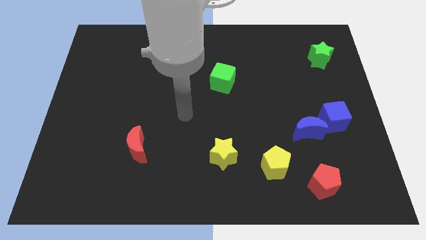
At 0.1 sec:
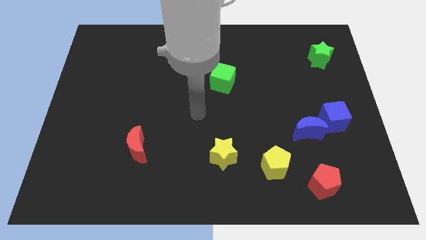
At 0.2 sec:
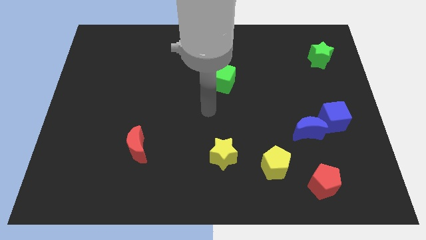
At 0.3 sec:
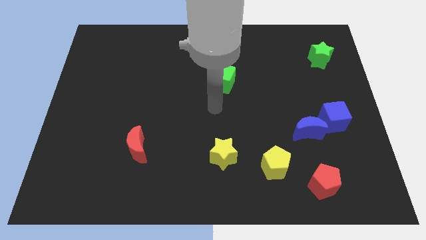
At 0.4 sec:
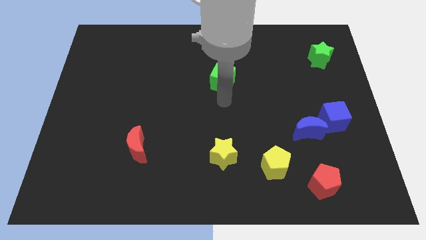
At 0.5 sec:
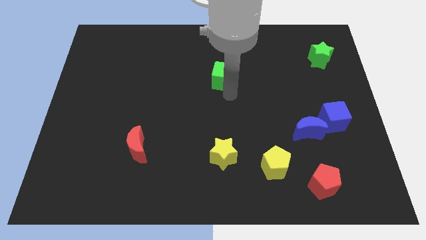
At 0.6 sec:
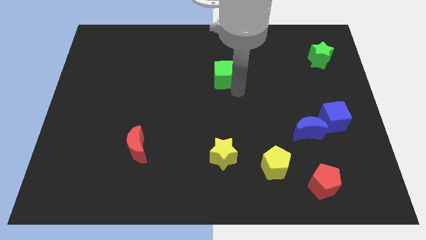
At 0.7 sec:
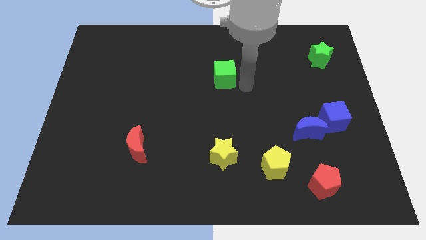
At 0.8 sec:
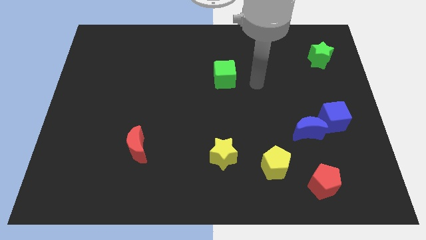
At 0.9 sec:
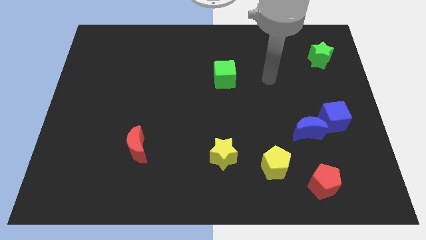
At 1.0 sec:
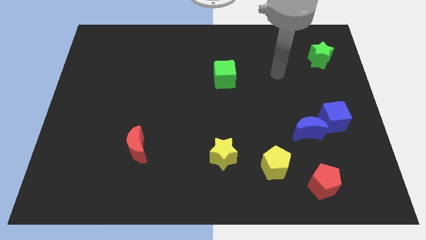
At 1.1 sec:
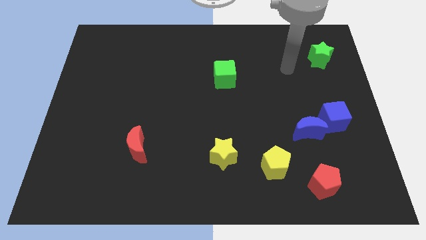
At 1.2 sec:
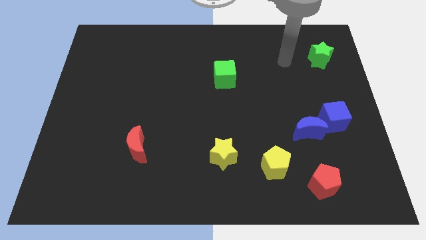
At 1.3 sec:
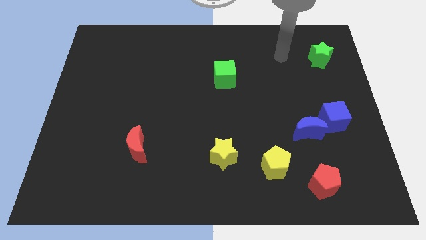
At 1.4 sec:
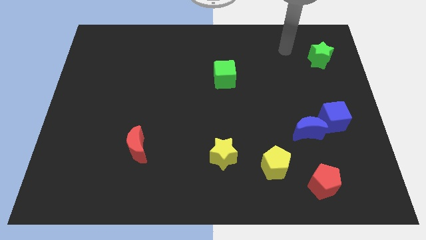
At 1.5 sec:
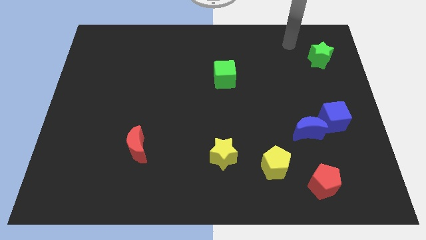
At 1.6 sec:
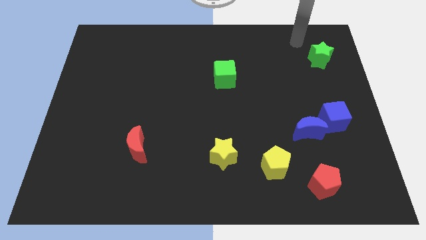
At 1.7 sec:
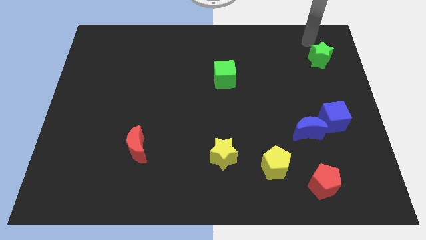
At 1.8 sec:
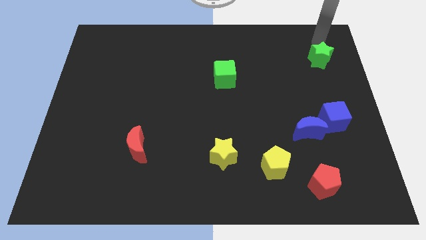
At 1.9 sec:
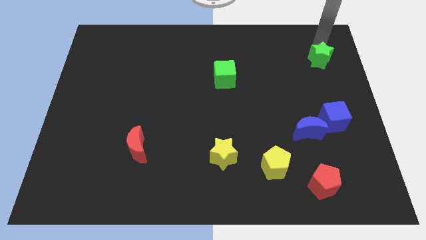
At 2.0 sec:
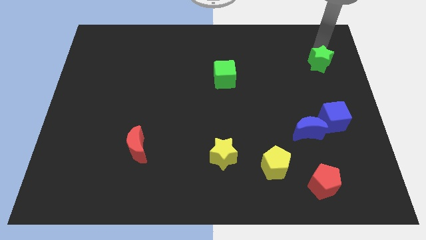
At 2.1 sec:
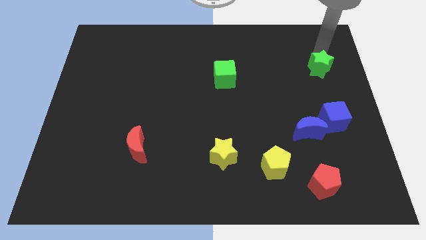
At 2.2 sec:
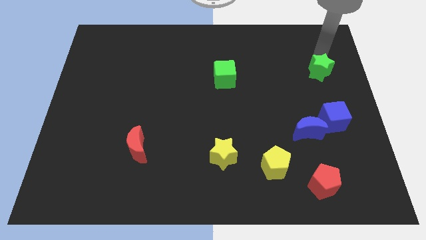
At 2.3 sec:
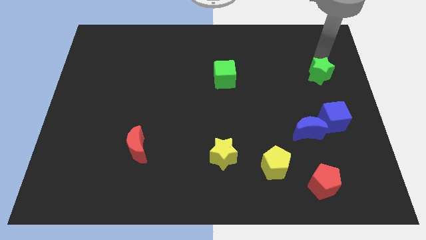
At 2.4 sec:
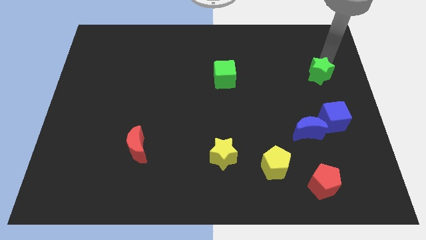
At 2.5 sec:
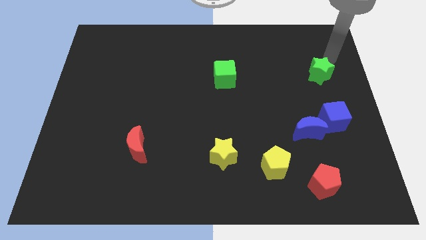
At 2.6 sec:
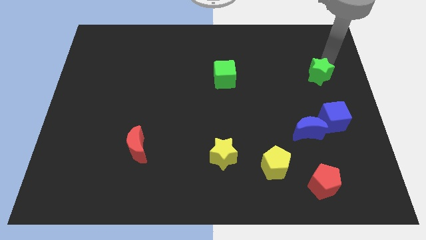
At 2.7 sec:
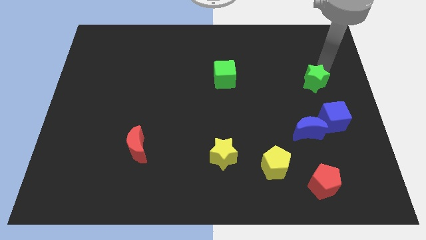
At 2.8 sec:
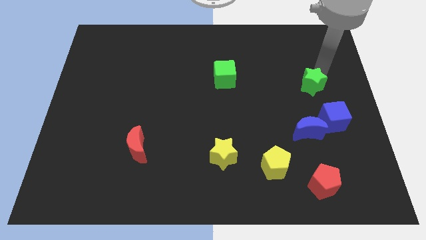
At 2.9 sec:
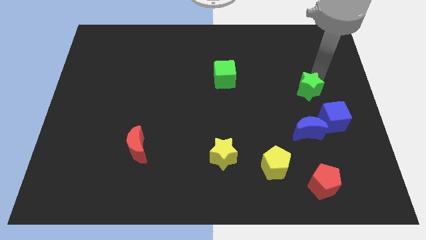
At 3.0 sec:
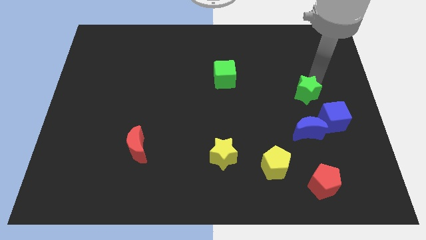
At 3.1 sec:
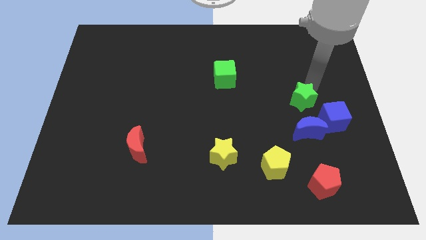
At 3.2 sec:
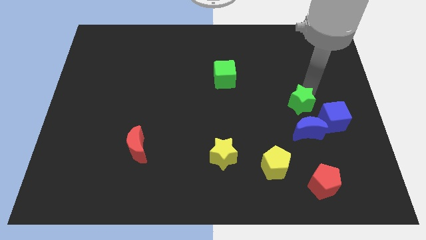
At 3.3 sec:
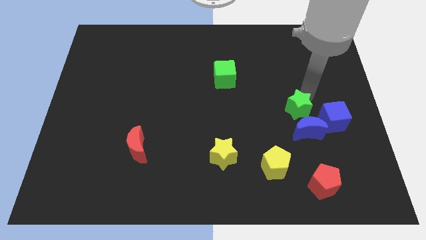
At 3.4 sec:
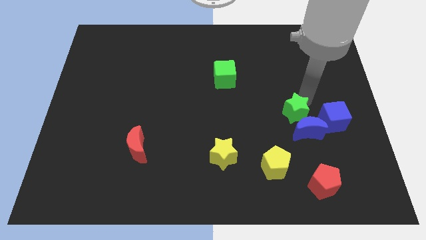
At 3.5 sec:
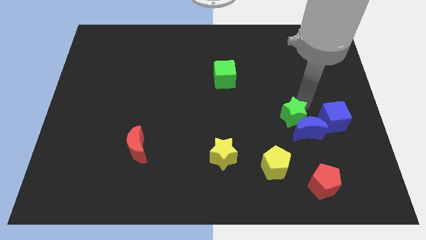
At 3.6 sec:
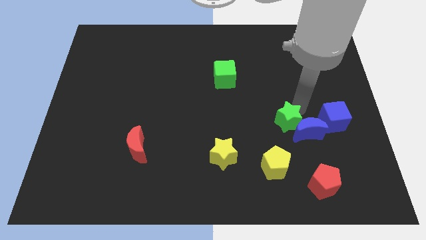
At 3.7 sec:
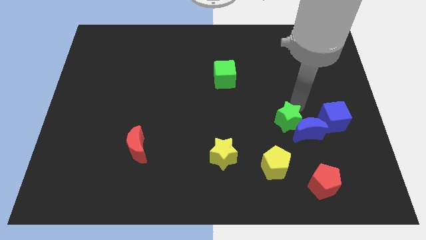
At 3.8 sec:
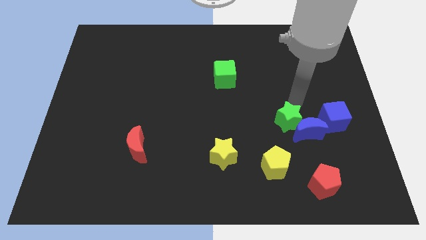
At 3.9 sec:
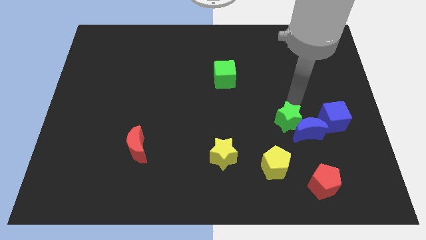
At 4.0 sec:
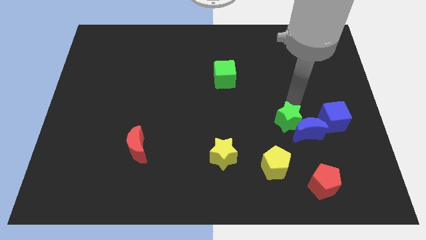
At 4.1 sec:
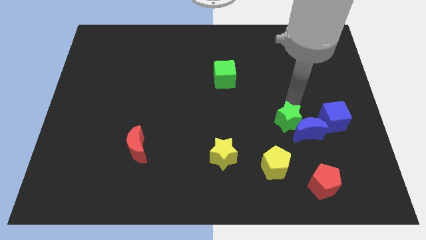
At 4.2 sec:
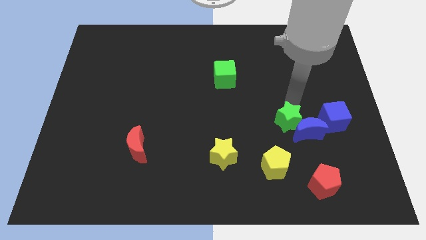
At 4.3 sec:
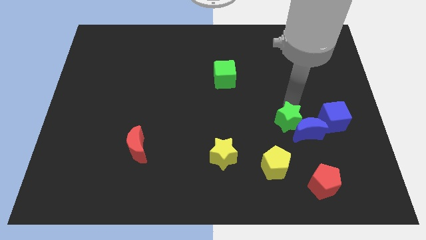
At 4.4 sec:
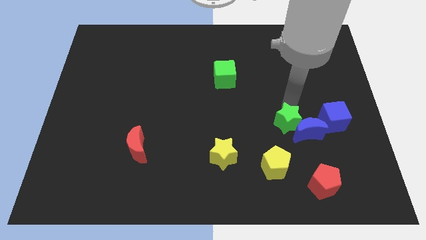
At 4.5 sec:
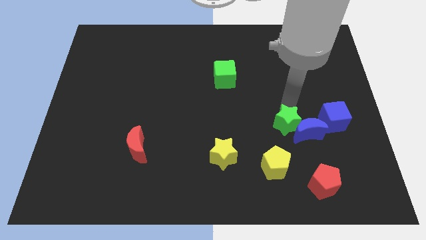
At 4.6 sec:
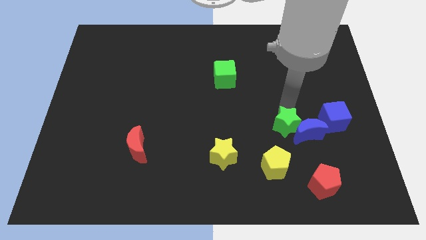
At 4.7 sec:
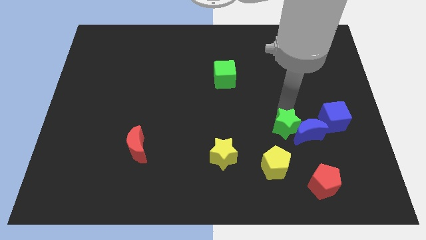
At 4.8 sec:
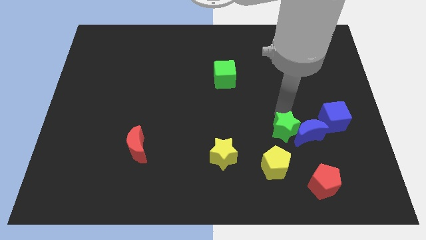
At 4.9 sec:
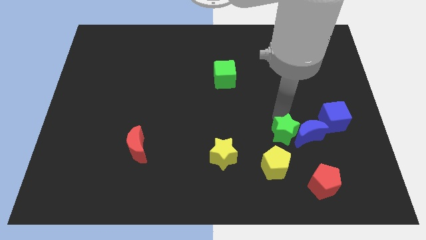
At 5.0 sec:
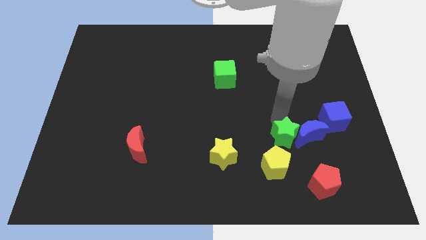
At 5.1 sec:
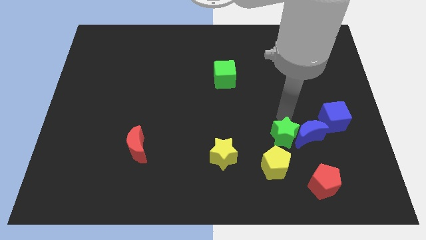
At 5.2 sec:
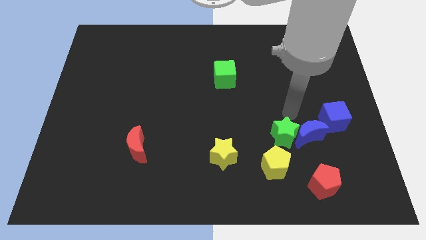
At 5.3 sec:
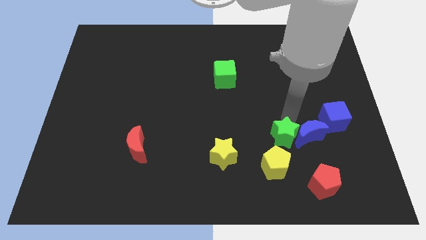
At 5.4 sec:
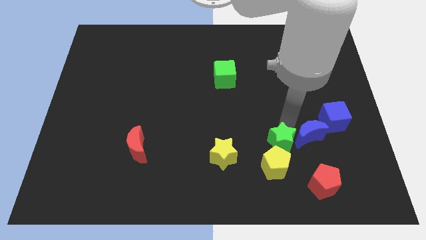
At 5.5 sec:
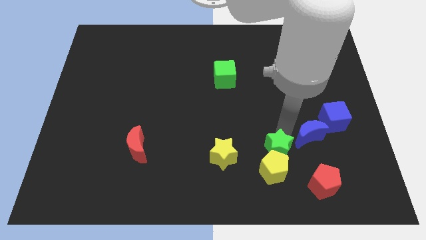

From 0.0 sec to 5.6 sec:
move the green star close to the yellow pentagon

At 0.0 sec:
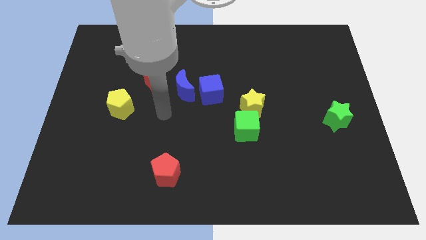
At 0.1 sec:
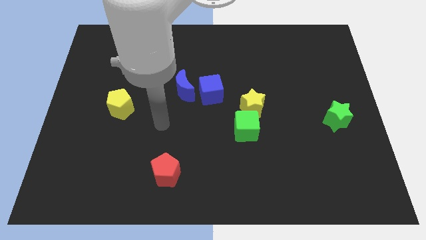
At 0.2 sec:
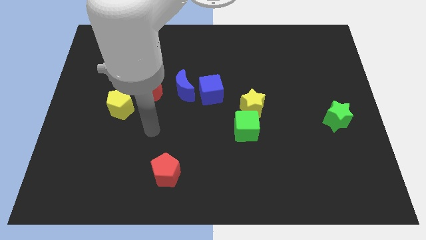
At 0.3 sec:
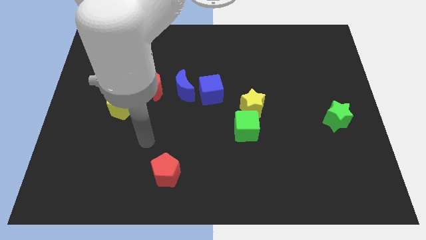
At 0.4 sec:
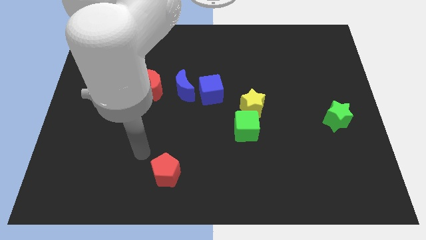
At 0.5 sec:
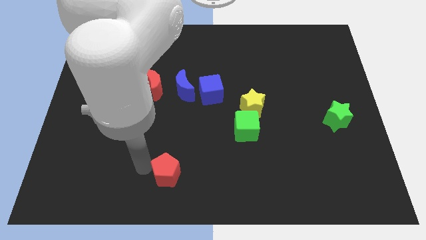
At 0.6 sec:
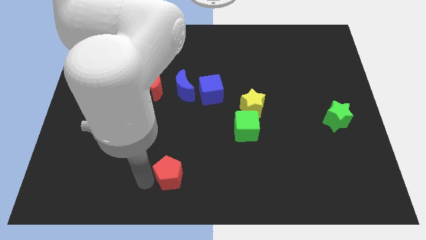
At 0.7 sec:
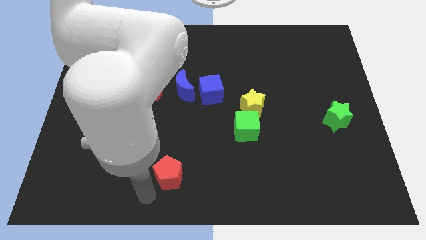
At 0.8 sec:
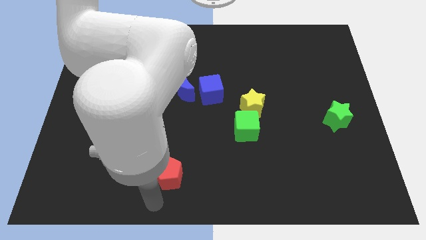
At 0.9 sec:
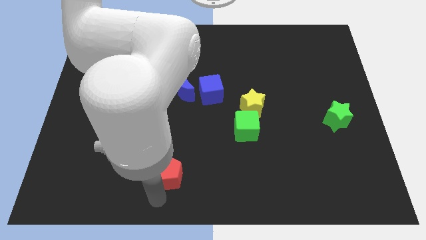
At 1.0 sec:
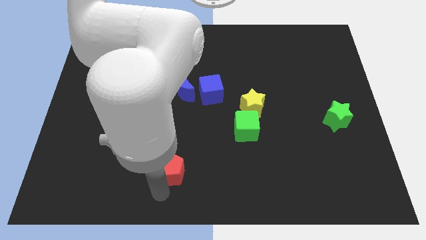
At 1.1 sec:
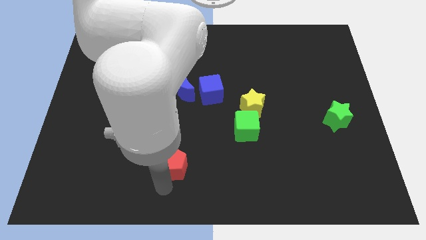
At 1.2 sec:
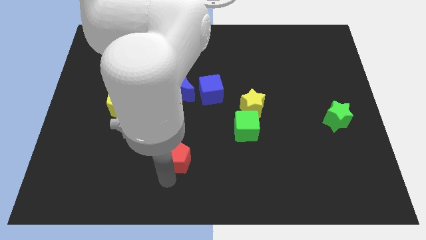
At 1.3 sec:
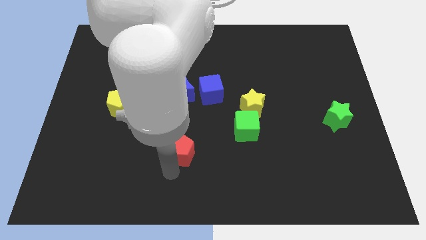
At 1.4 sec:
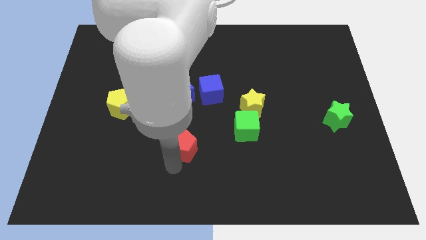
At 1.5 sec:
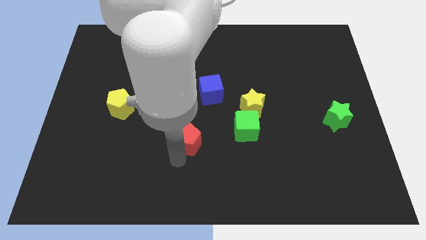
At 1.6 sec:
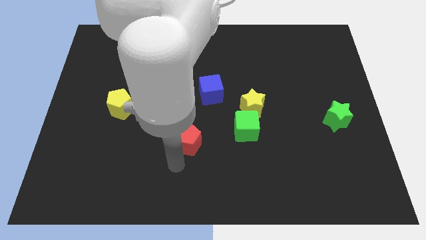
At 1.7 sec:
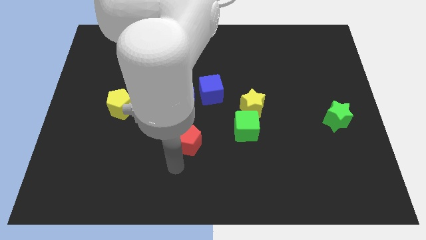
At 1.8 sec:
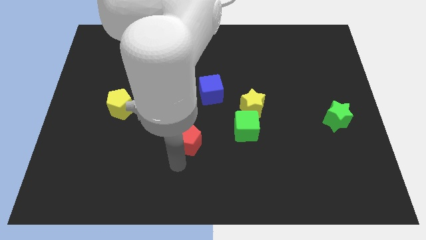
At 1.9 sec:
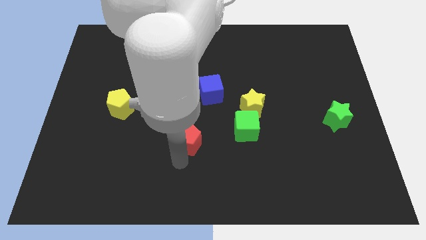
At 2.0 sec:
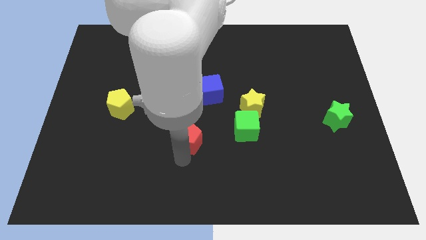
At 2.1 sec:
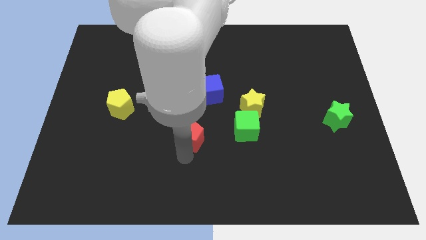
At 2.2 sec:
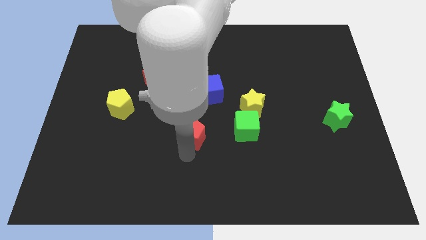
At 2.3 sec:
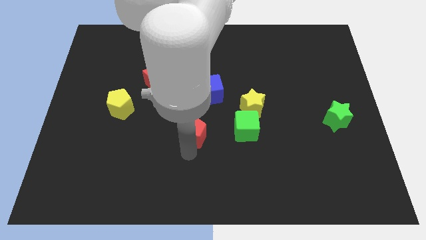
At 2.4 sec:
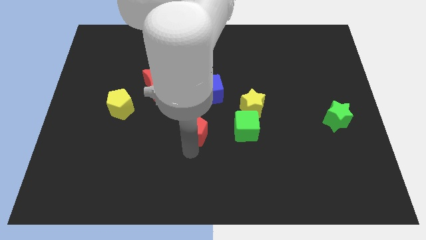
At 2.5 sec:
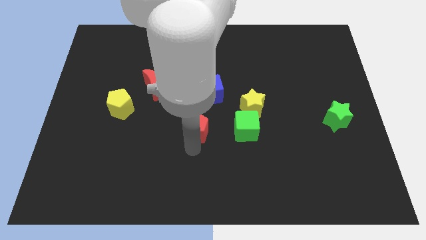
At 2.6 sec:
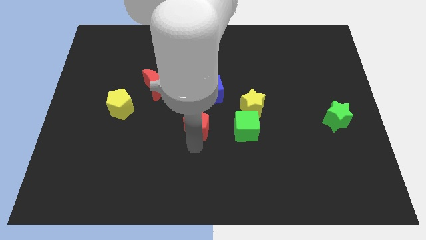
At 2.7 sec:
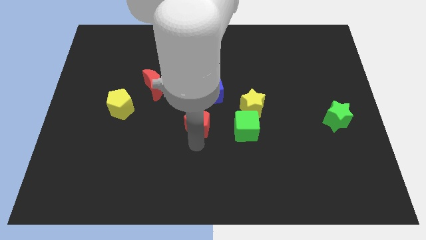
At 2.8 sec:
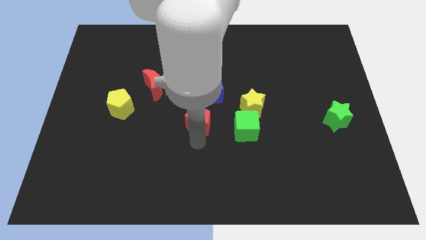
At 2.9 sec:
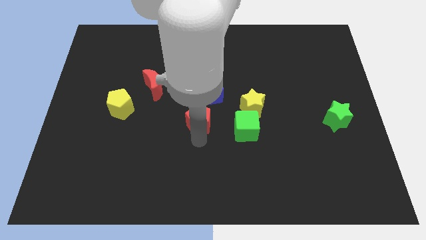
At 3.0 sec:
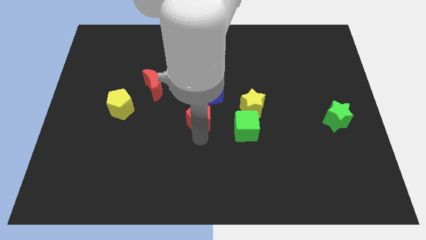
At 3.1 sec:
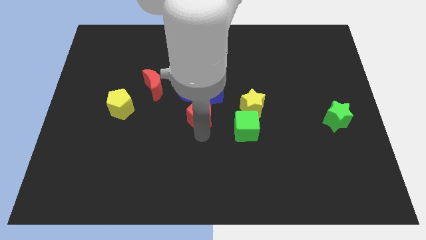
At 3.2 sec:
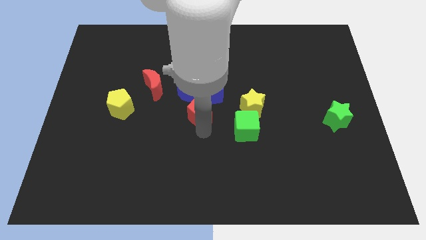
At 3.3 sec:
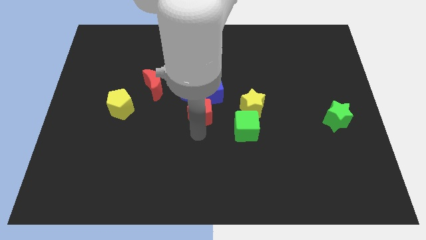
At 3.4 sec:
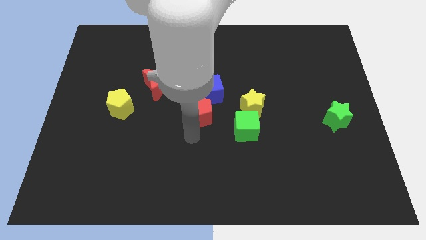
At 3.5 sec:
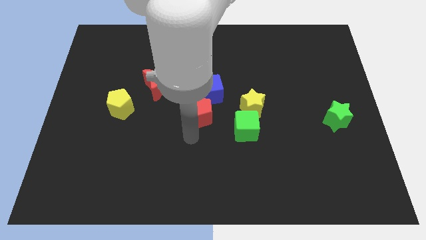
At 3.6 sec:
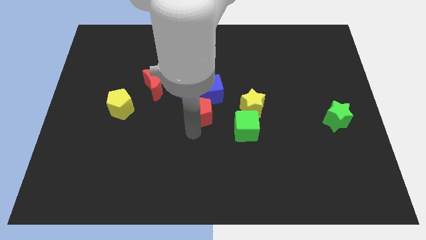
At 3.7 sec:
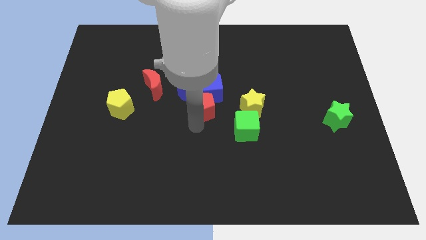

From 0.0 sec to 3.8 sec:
move the red pentagon close to the blue cube
